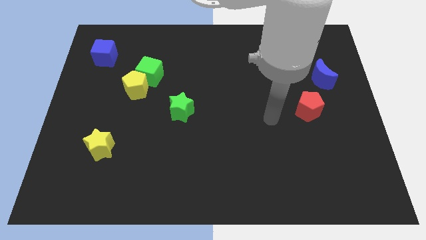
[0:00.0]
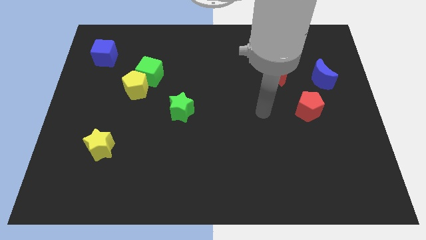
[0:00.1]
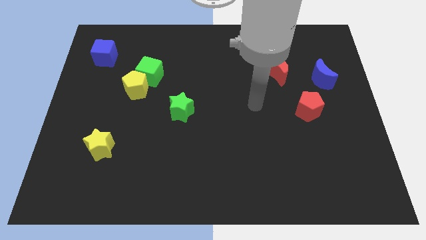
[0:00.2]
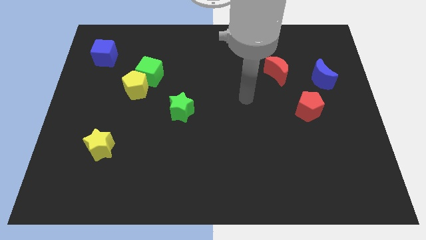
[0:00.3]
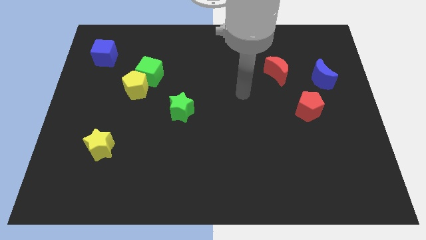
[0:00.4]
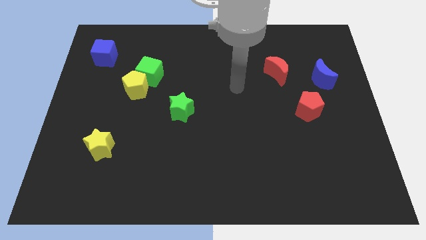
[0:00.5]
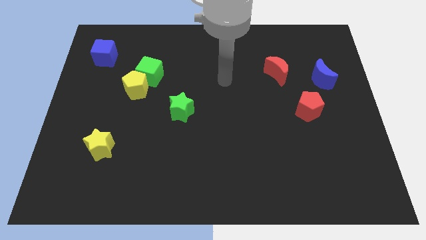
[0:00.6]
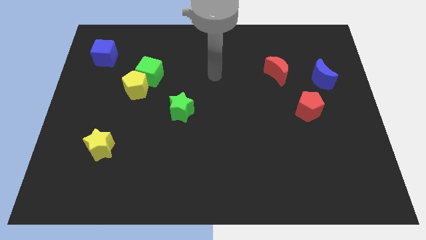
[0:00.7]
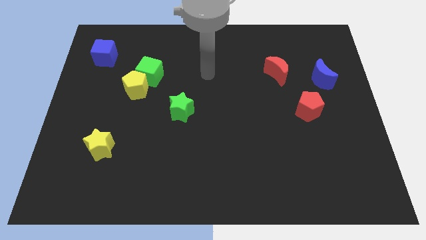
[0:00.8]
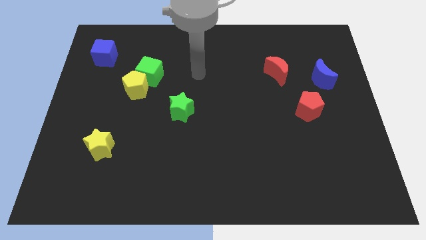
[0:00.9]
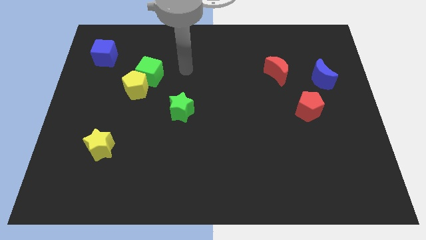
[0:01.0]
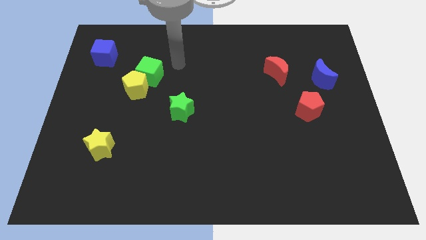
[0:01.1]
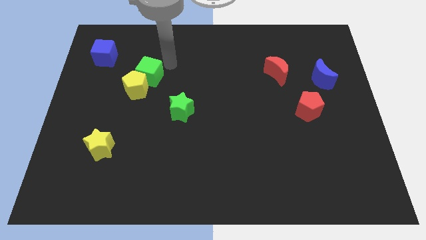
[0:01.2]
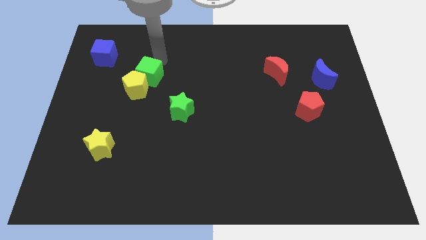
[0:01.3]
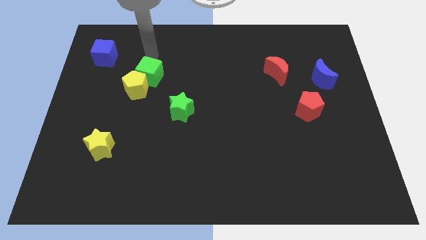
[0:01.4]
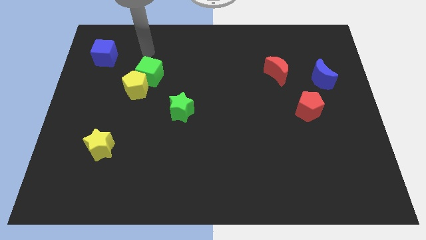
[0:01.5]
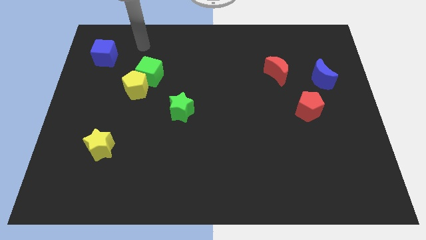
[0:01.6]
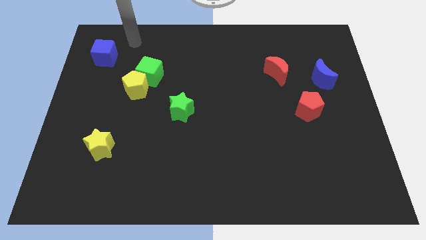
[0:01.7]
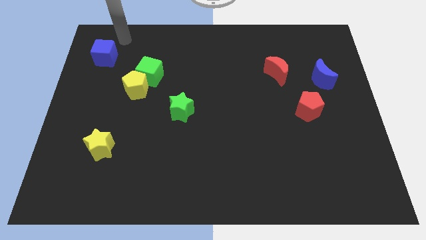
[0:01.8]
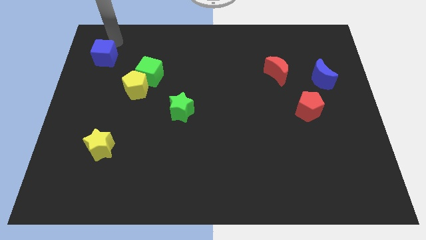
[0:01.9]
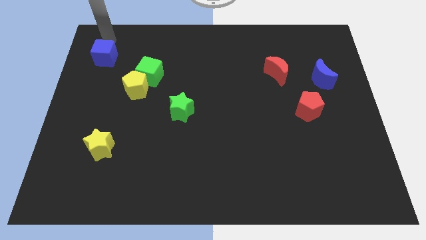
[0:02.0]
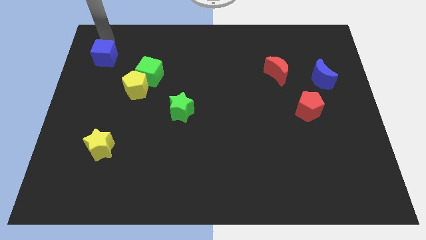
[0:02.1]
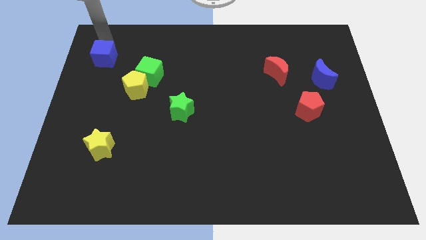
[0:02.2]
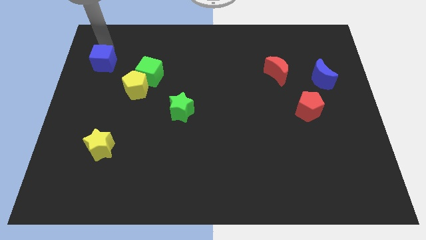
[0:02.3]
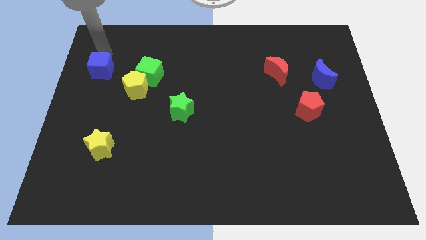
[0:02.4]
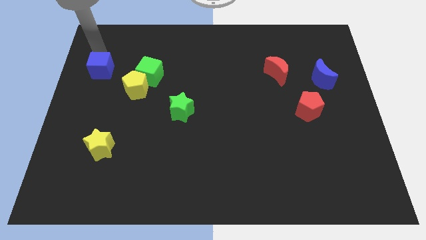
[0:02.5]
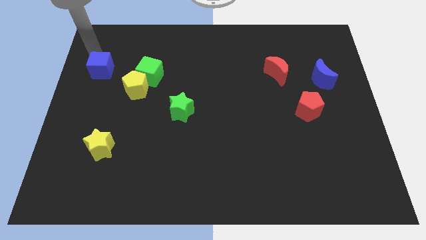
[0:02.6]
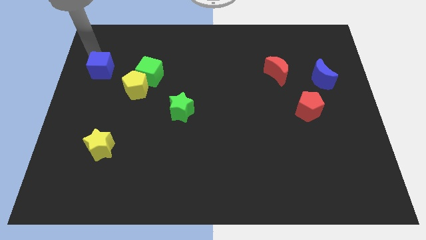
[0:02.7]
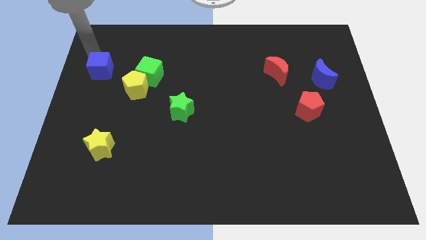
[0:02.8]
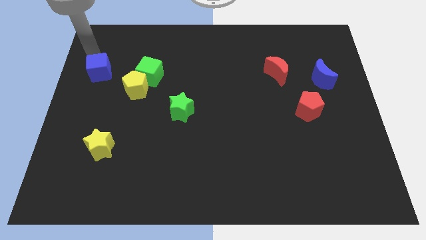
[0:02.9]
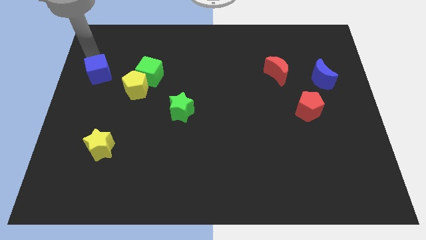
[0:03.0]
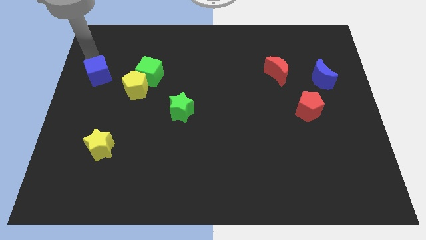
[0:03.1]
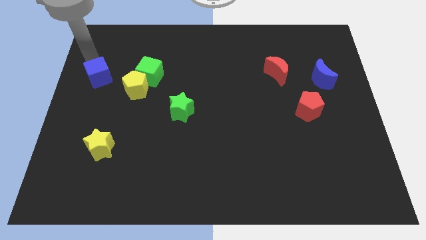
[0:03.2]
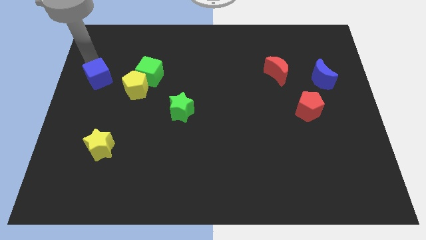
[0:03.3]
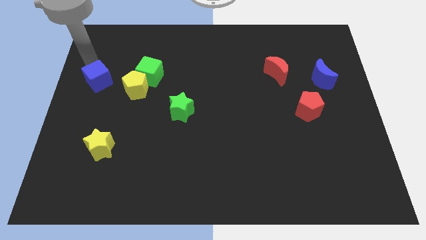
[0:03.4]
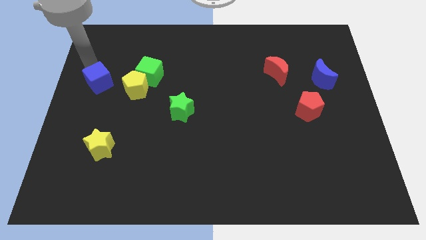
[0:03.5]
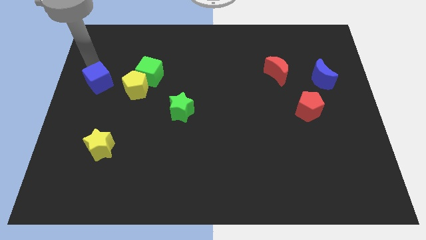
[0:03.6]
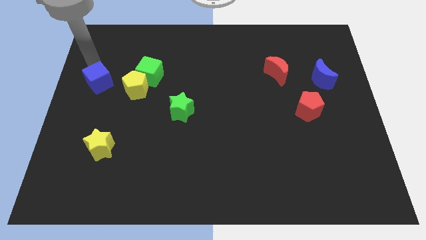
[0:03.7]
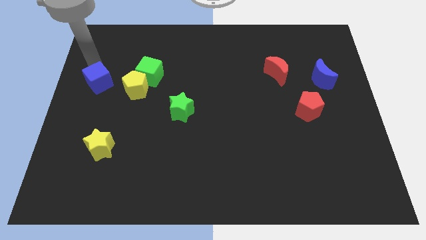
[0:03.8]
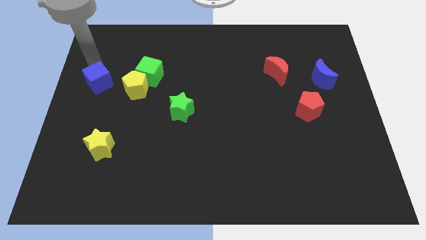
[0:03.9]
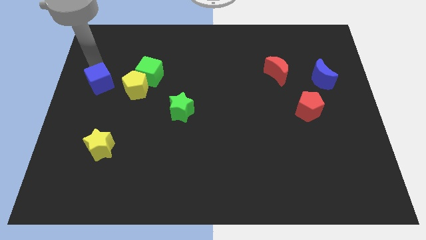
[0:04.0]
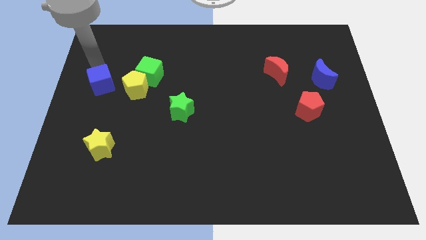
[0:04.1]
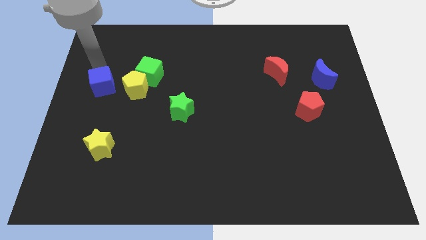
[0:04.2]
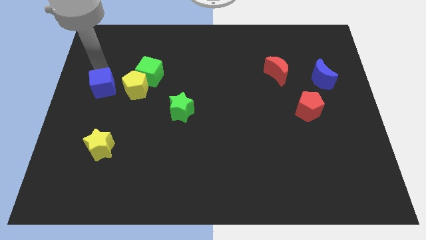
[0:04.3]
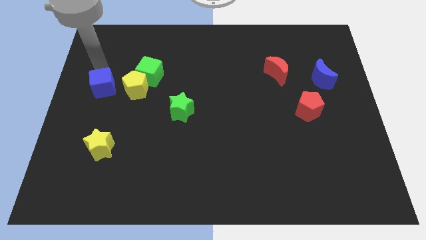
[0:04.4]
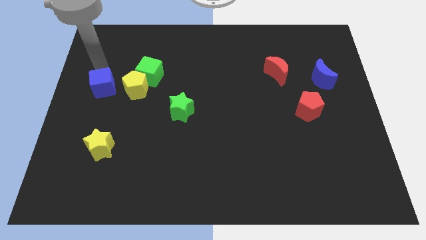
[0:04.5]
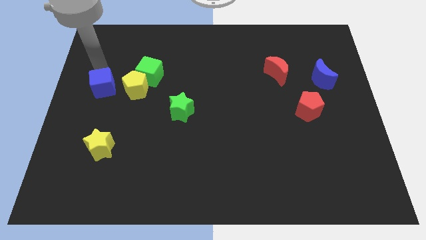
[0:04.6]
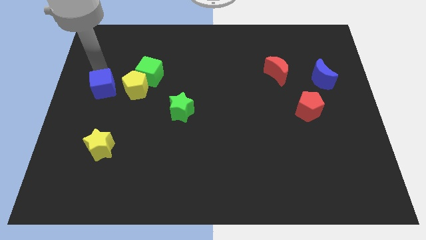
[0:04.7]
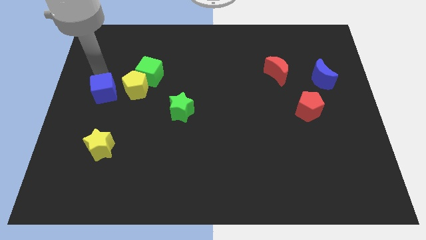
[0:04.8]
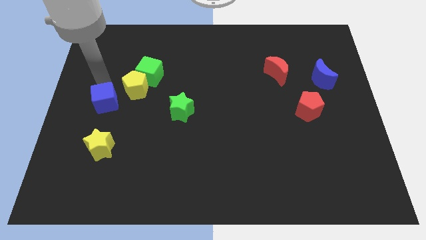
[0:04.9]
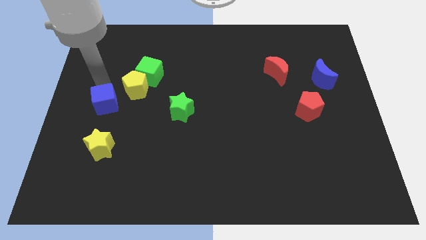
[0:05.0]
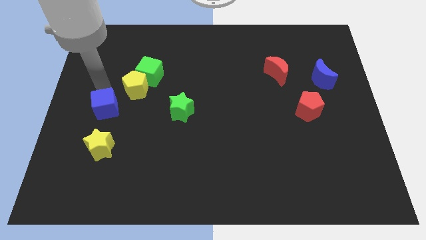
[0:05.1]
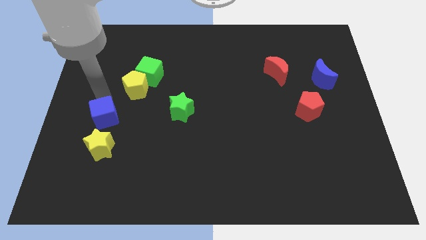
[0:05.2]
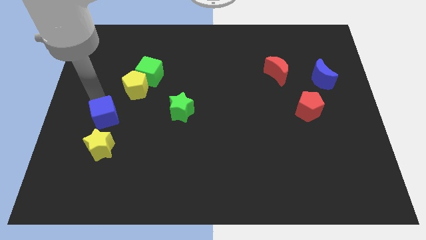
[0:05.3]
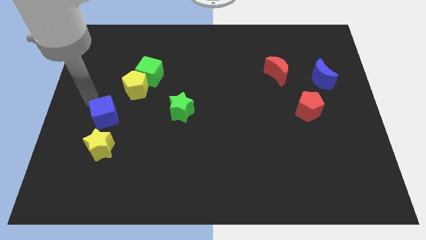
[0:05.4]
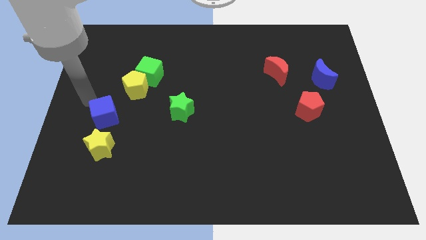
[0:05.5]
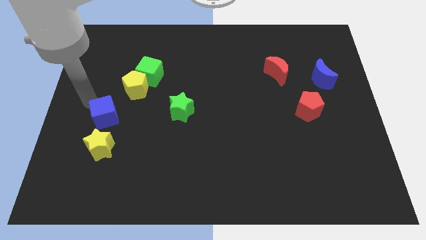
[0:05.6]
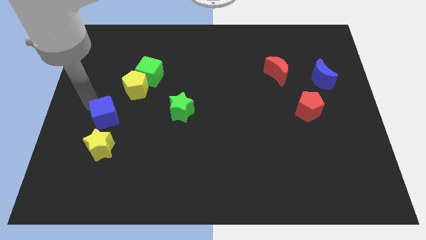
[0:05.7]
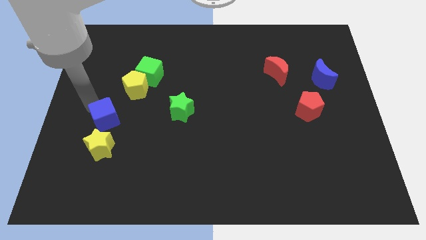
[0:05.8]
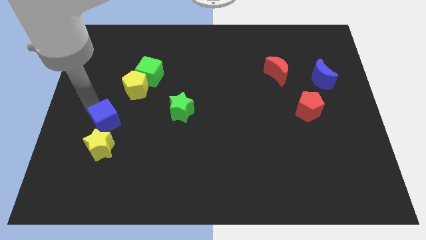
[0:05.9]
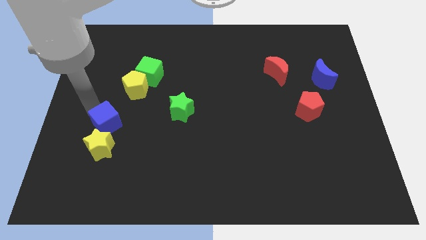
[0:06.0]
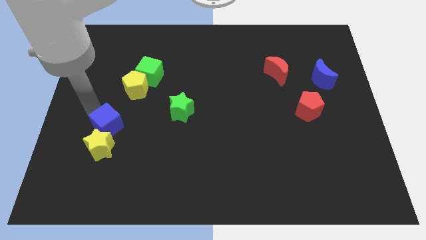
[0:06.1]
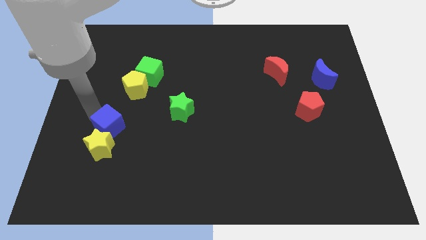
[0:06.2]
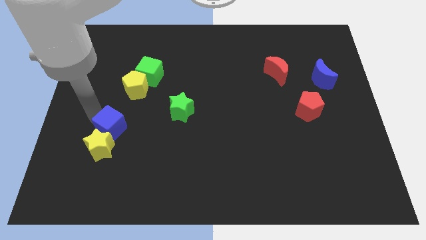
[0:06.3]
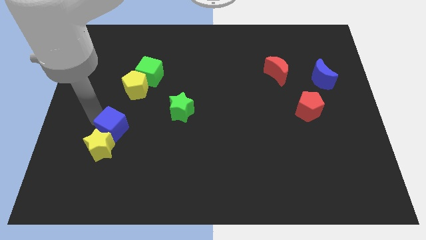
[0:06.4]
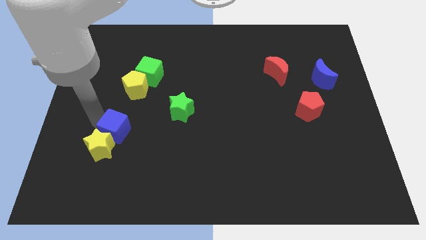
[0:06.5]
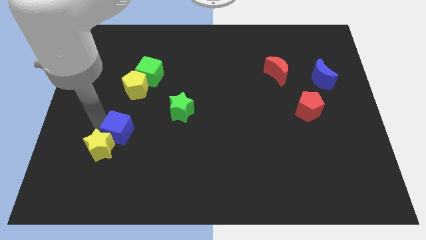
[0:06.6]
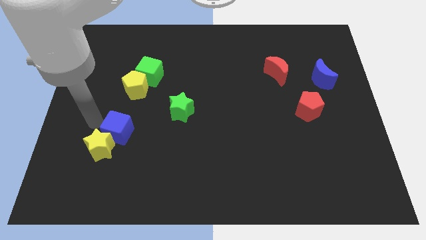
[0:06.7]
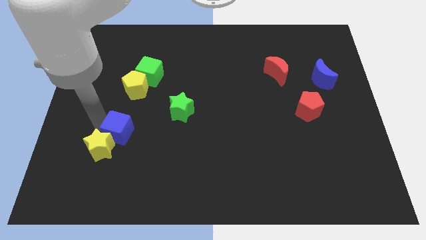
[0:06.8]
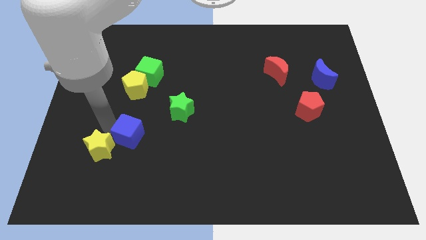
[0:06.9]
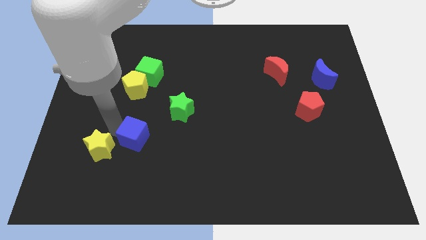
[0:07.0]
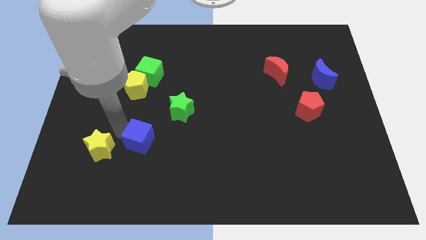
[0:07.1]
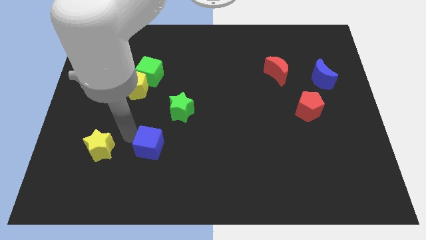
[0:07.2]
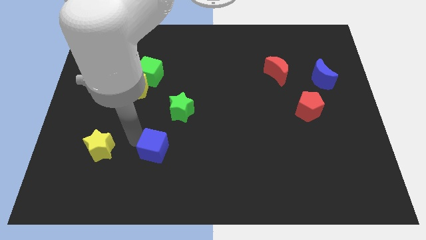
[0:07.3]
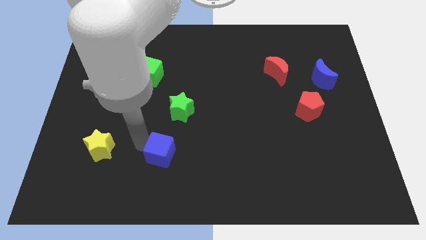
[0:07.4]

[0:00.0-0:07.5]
slide the blue cube to the bottom side of the green star
